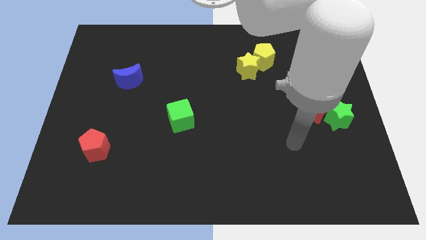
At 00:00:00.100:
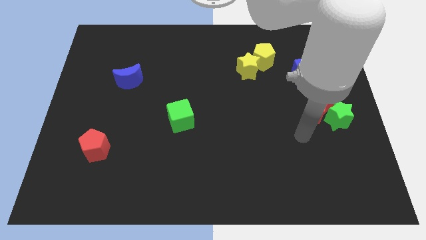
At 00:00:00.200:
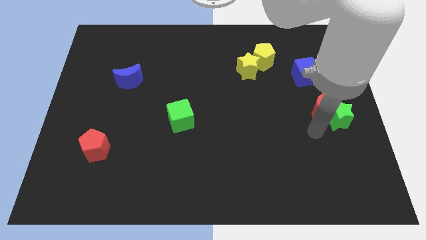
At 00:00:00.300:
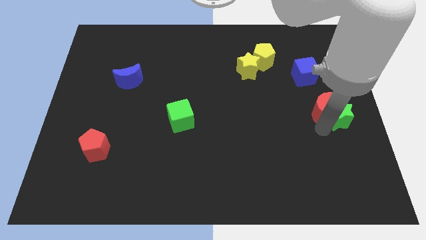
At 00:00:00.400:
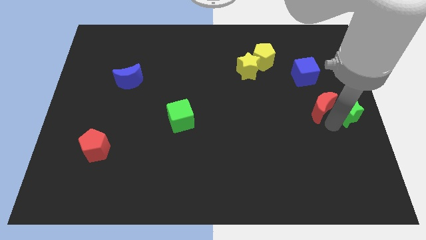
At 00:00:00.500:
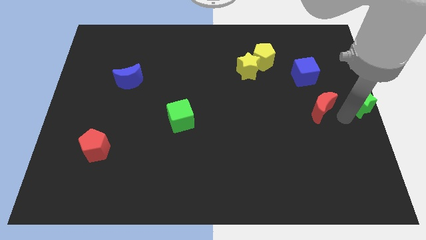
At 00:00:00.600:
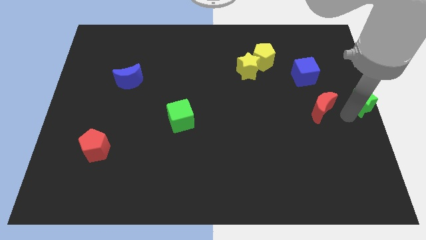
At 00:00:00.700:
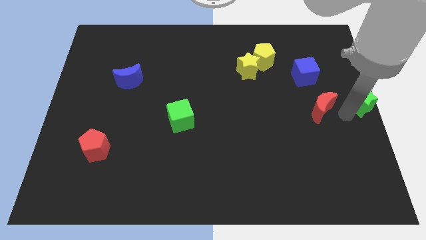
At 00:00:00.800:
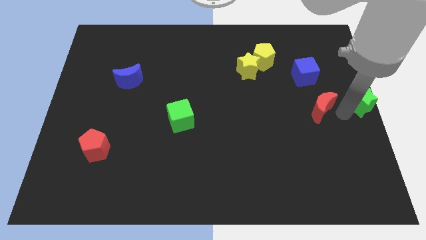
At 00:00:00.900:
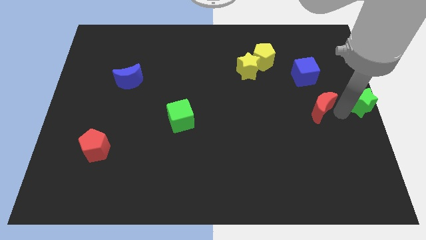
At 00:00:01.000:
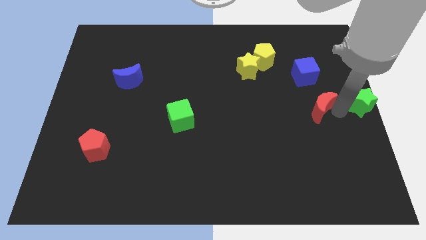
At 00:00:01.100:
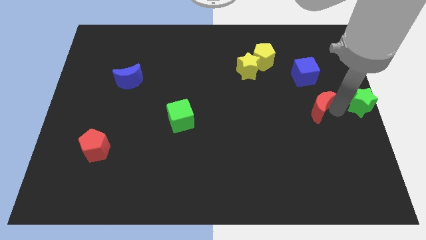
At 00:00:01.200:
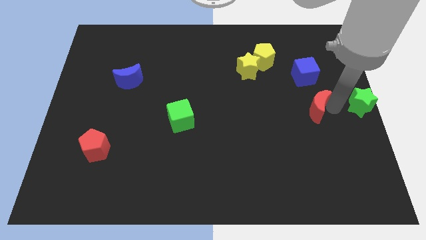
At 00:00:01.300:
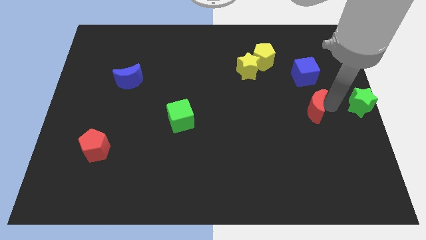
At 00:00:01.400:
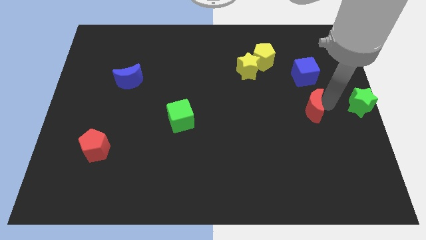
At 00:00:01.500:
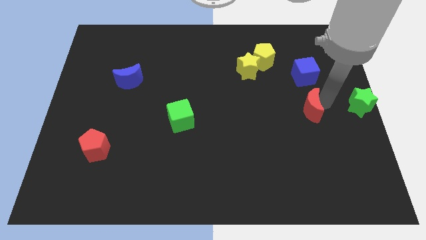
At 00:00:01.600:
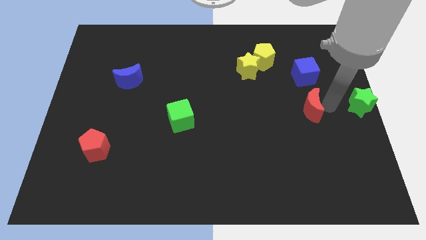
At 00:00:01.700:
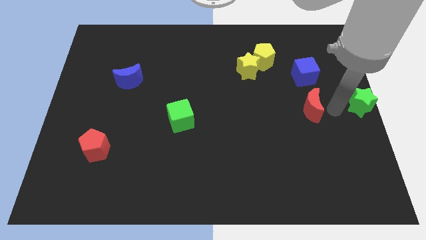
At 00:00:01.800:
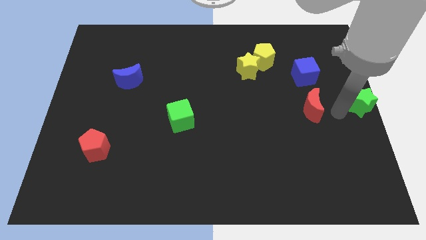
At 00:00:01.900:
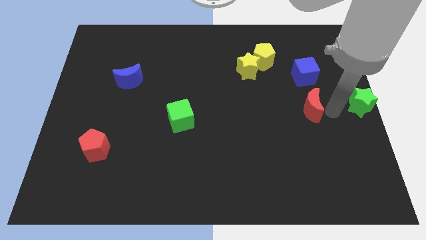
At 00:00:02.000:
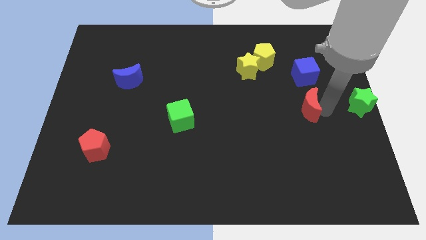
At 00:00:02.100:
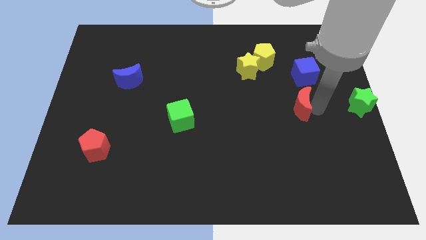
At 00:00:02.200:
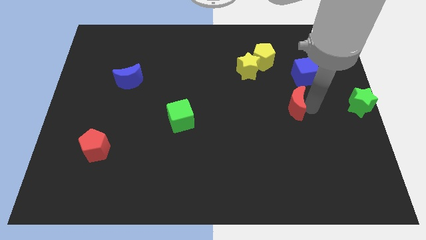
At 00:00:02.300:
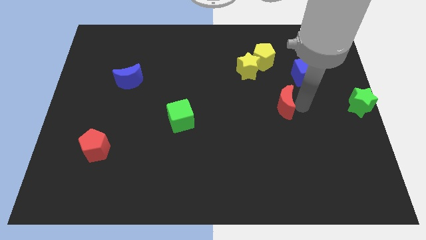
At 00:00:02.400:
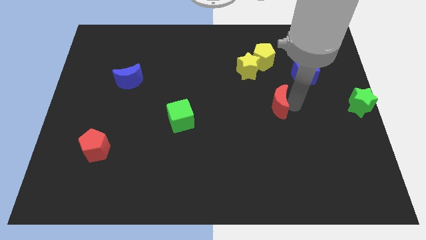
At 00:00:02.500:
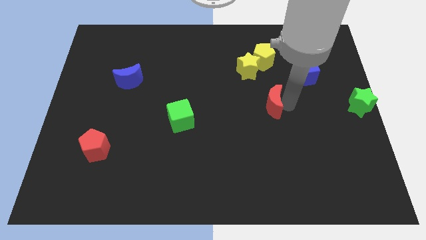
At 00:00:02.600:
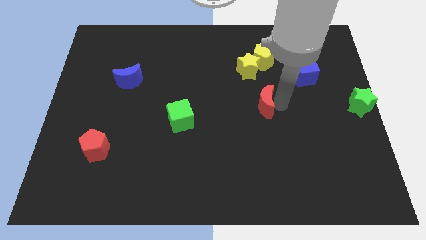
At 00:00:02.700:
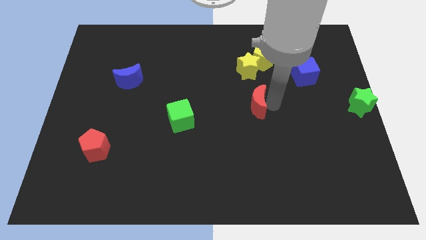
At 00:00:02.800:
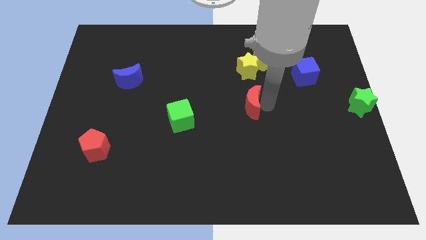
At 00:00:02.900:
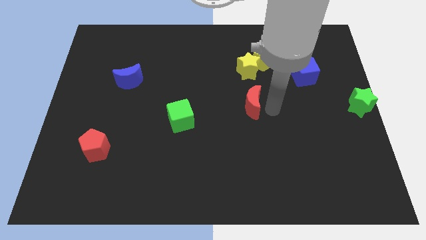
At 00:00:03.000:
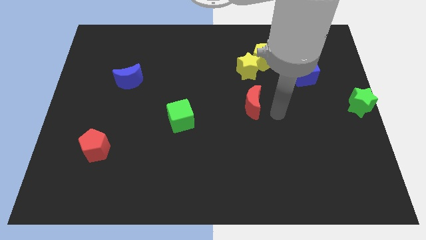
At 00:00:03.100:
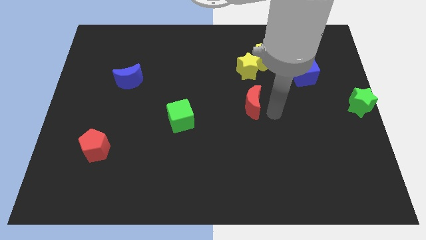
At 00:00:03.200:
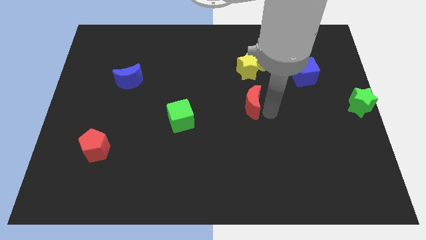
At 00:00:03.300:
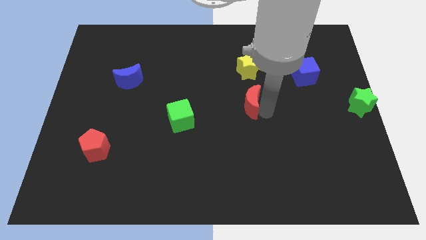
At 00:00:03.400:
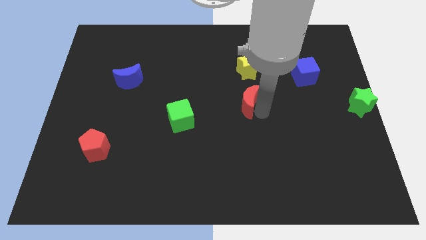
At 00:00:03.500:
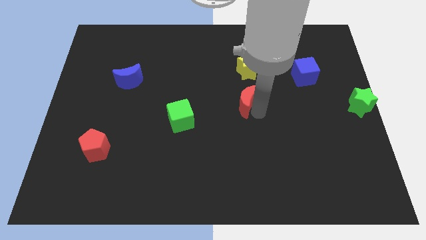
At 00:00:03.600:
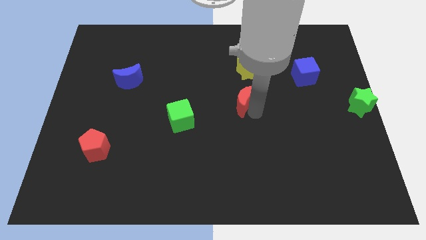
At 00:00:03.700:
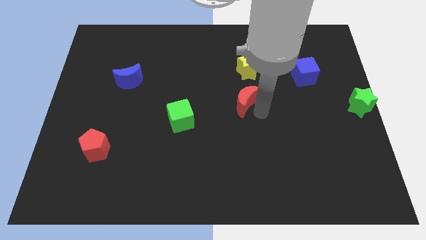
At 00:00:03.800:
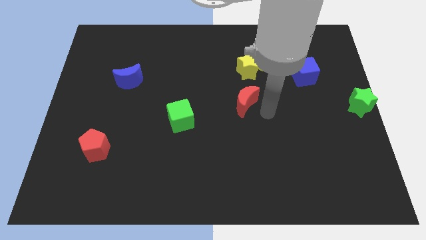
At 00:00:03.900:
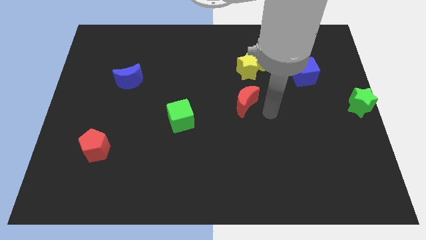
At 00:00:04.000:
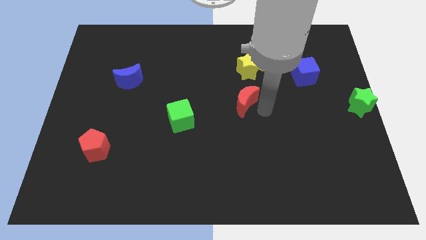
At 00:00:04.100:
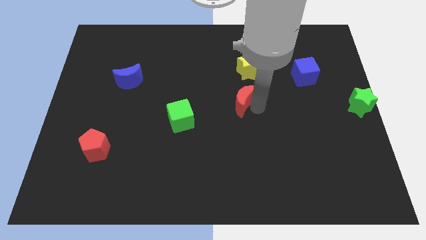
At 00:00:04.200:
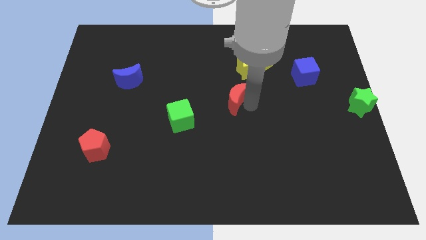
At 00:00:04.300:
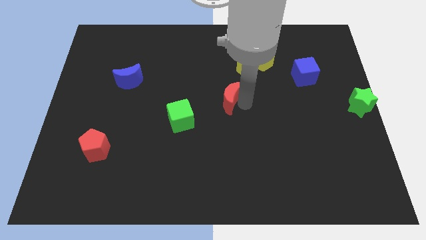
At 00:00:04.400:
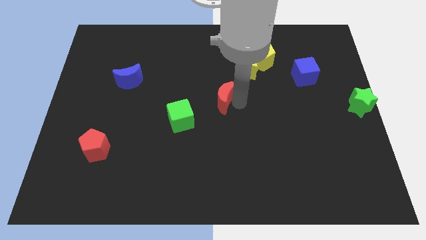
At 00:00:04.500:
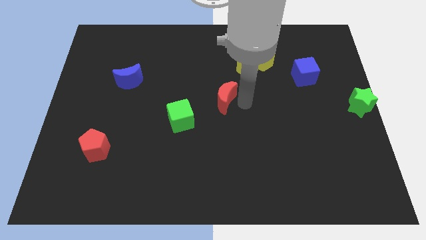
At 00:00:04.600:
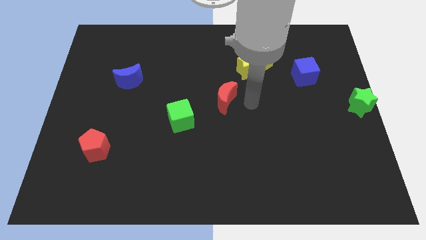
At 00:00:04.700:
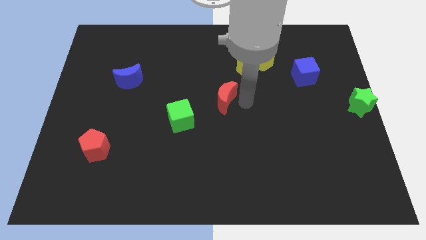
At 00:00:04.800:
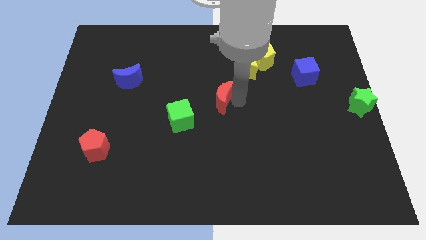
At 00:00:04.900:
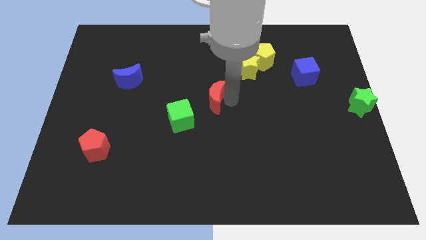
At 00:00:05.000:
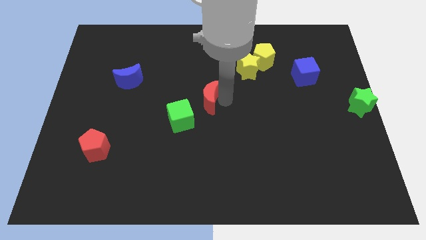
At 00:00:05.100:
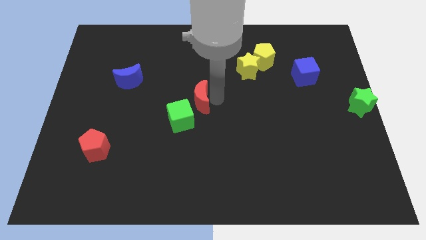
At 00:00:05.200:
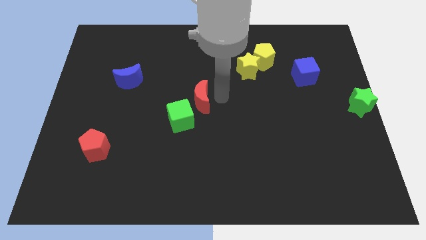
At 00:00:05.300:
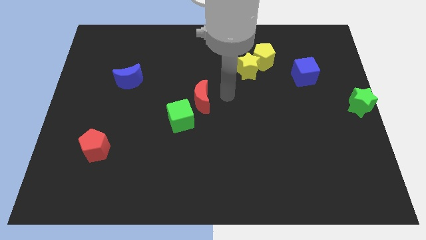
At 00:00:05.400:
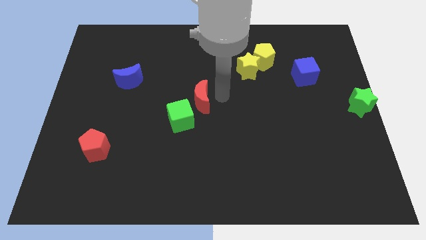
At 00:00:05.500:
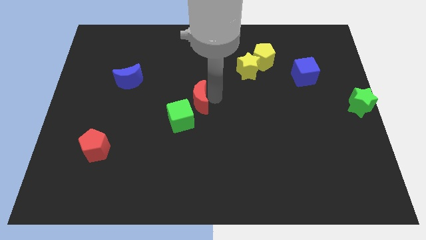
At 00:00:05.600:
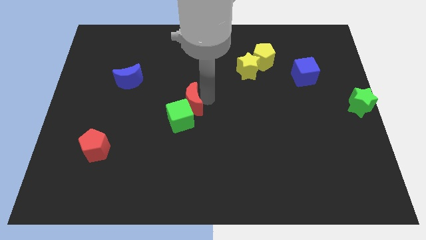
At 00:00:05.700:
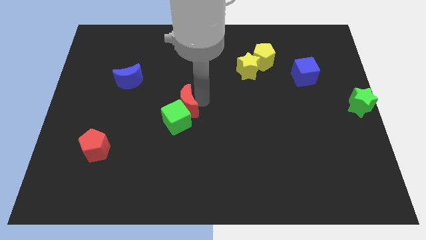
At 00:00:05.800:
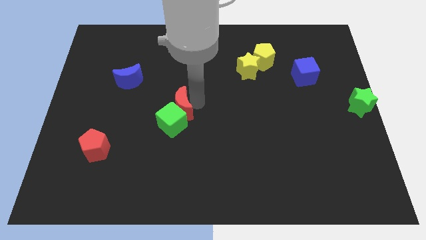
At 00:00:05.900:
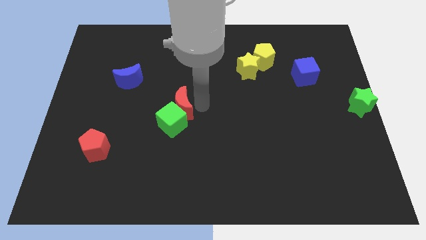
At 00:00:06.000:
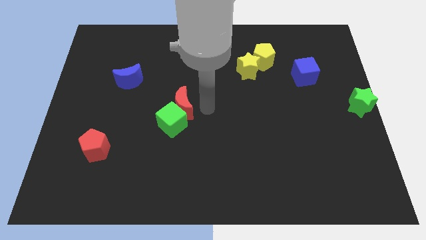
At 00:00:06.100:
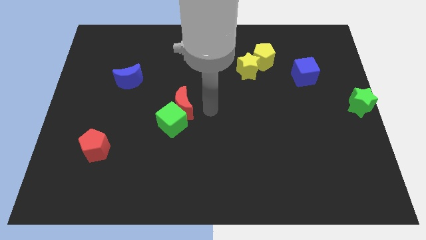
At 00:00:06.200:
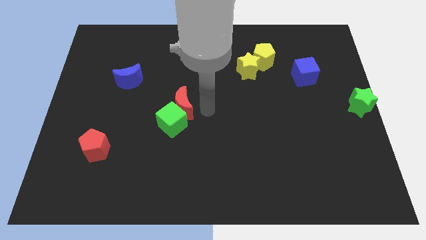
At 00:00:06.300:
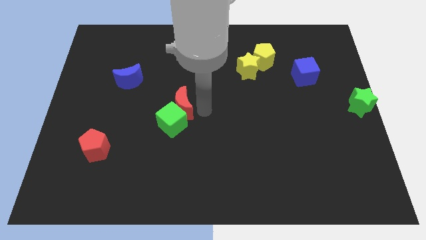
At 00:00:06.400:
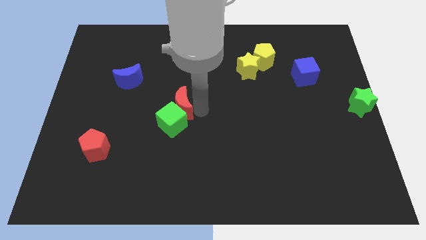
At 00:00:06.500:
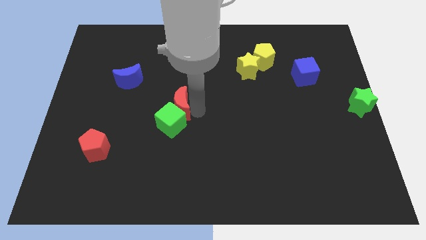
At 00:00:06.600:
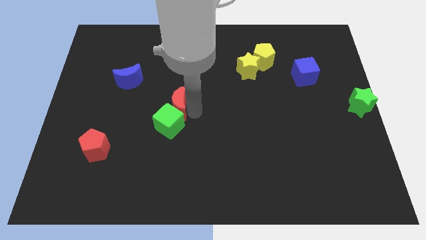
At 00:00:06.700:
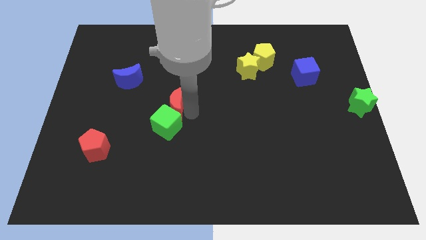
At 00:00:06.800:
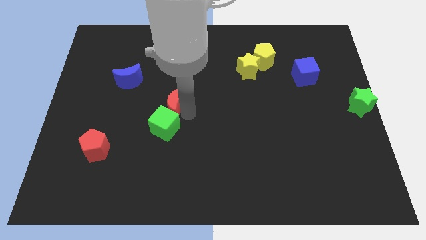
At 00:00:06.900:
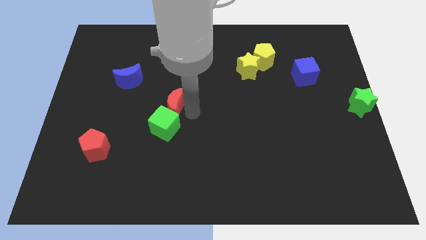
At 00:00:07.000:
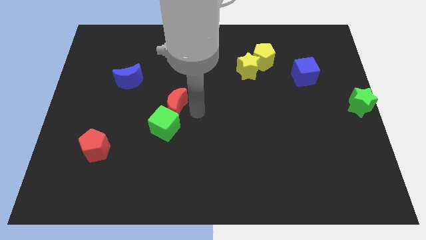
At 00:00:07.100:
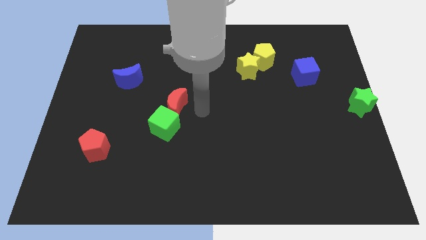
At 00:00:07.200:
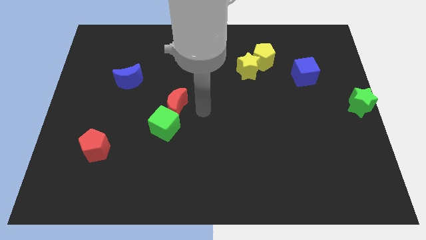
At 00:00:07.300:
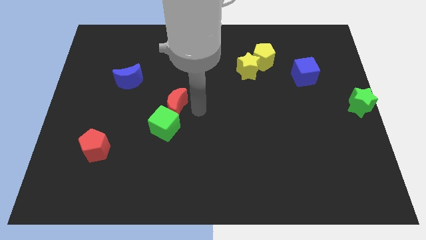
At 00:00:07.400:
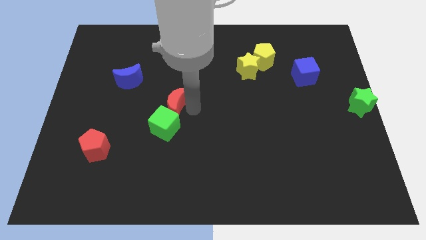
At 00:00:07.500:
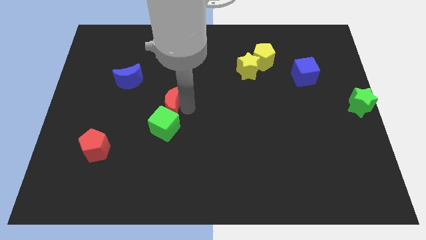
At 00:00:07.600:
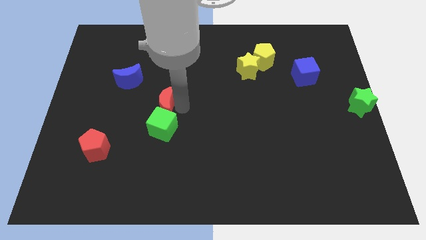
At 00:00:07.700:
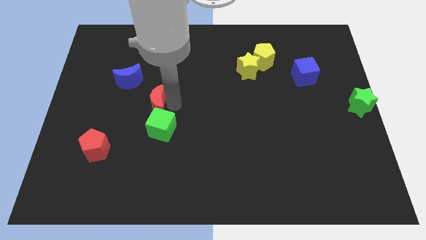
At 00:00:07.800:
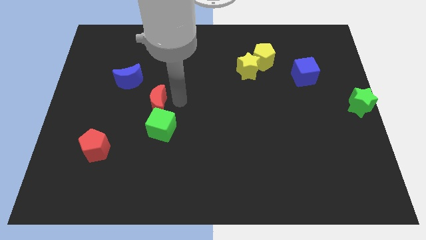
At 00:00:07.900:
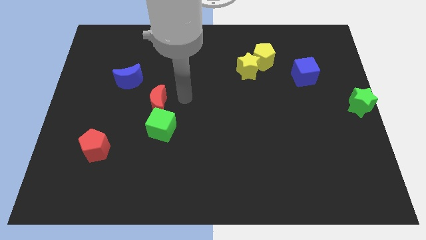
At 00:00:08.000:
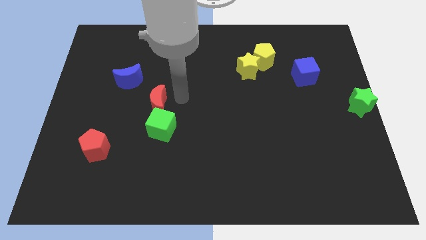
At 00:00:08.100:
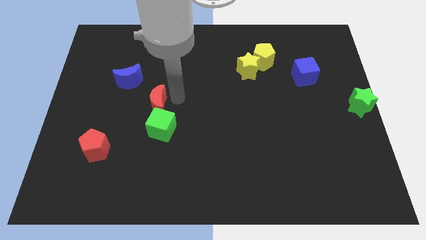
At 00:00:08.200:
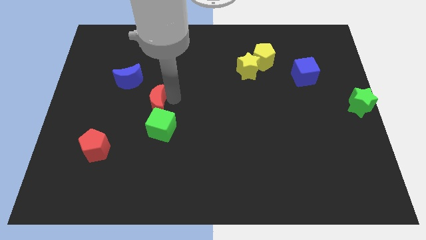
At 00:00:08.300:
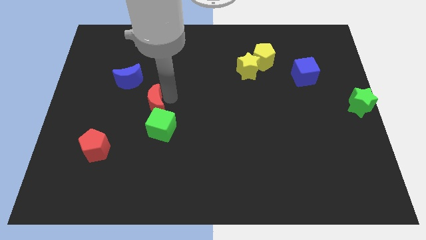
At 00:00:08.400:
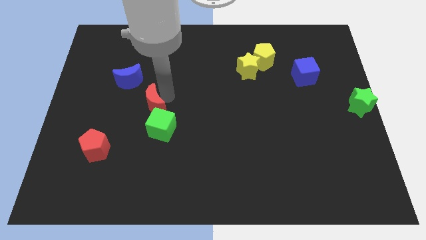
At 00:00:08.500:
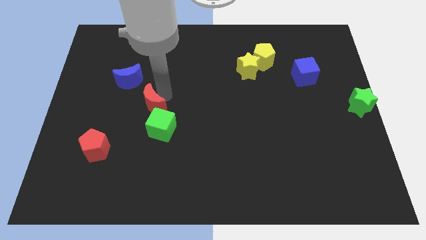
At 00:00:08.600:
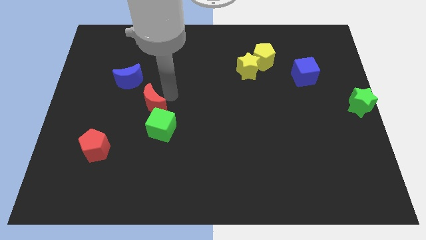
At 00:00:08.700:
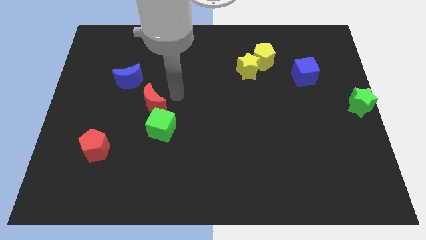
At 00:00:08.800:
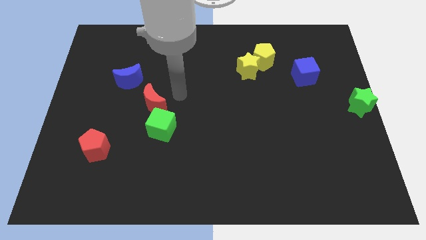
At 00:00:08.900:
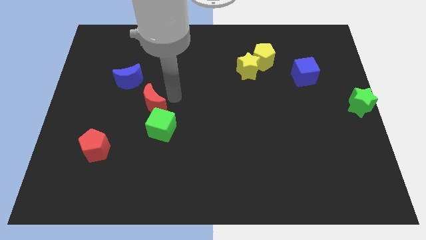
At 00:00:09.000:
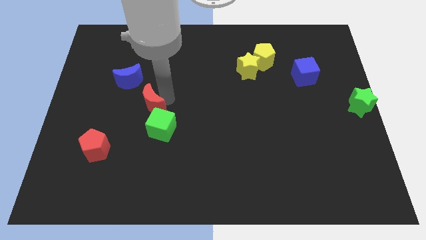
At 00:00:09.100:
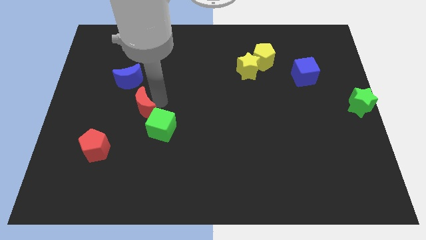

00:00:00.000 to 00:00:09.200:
move the red moon to the bottom side of the blue moon
